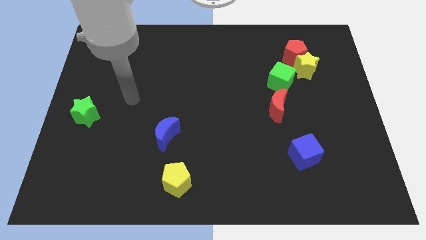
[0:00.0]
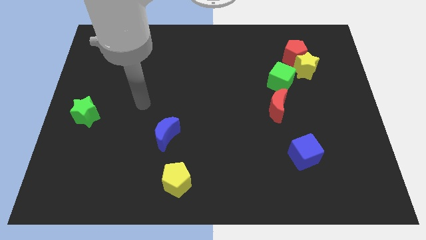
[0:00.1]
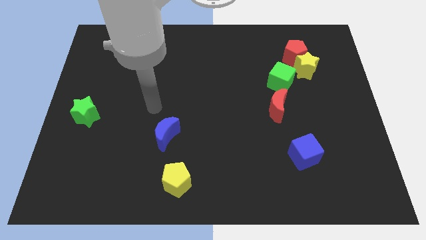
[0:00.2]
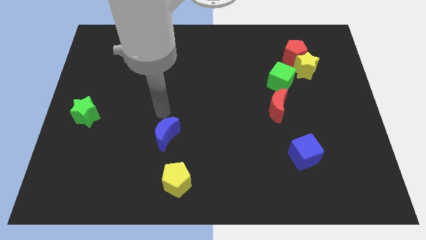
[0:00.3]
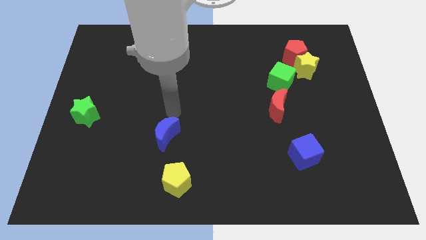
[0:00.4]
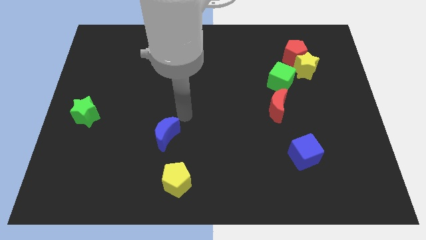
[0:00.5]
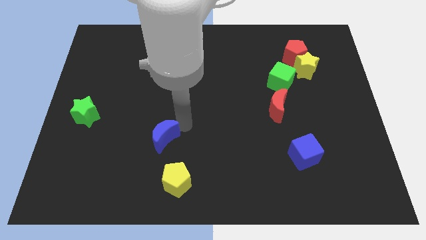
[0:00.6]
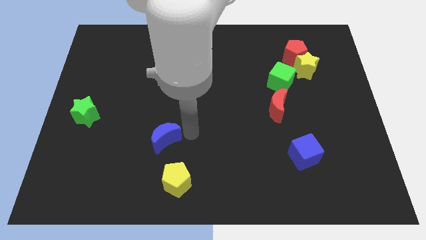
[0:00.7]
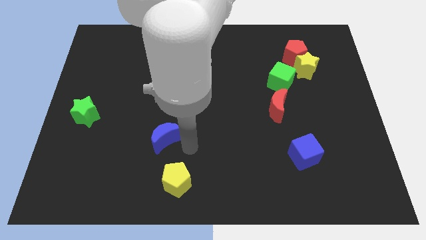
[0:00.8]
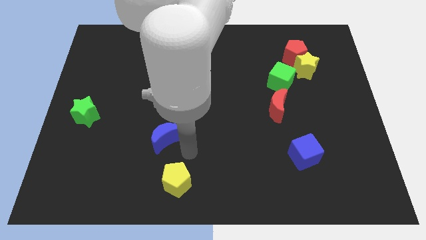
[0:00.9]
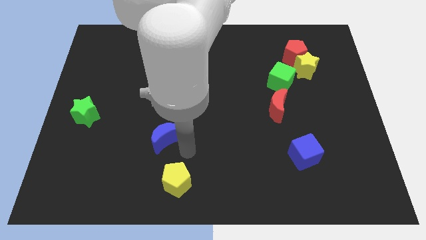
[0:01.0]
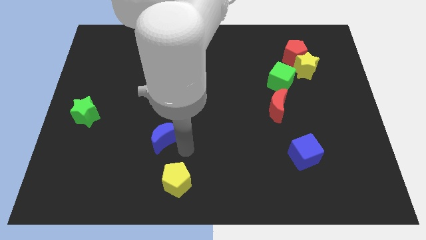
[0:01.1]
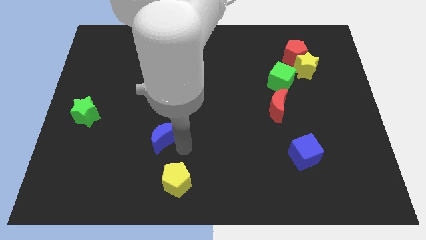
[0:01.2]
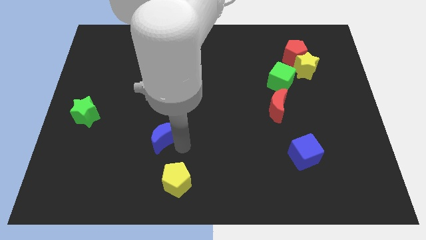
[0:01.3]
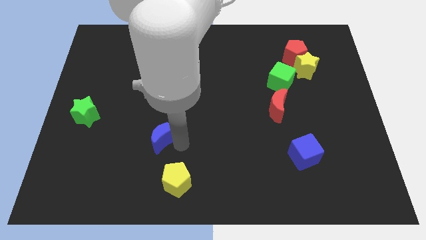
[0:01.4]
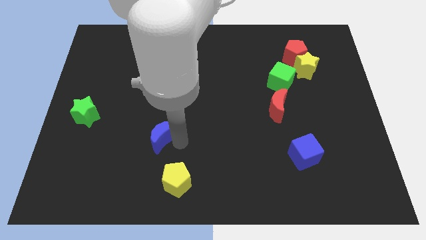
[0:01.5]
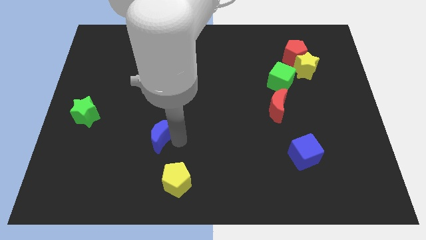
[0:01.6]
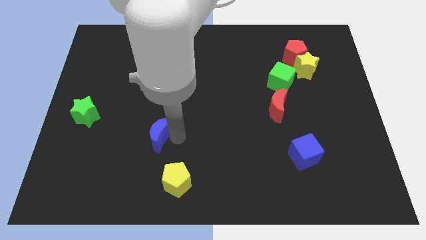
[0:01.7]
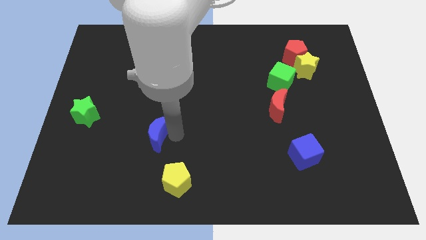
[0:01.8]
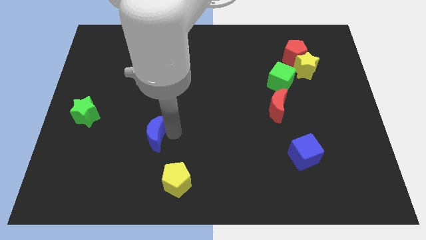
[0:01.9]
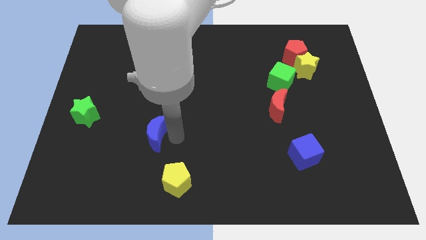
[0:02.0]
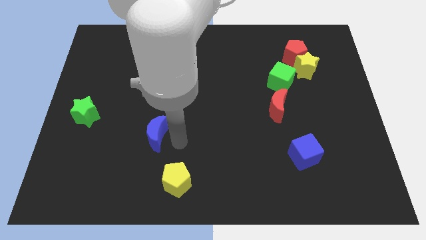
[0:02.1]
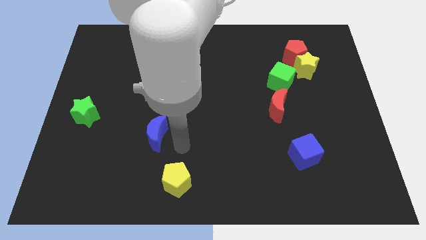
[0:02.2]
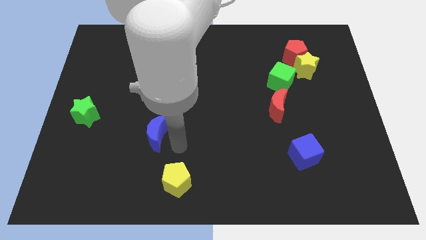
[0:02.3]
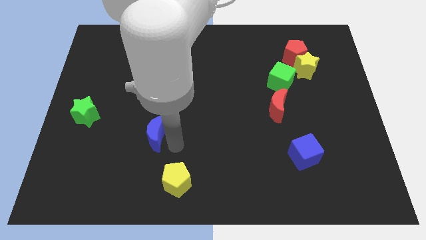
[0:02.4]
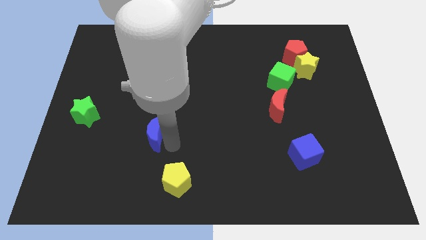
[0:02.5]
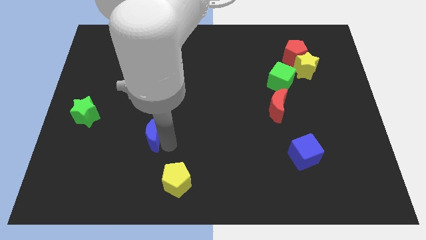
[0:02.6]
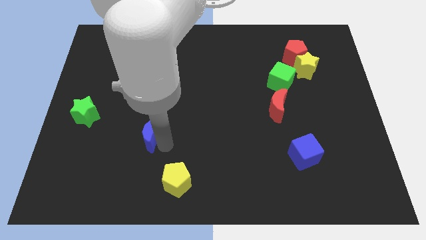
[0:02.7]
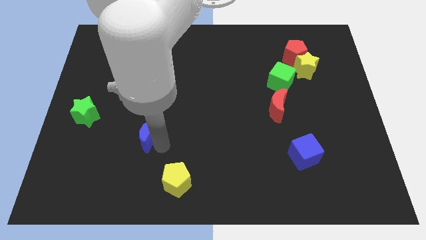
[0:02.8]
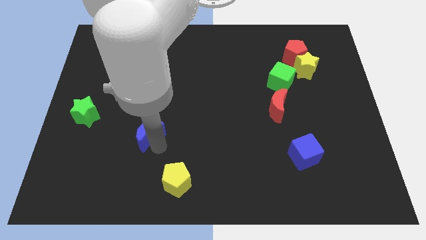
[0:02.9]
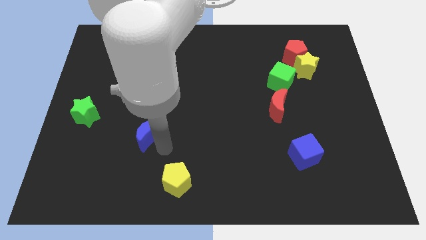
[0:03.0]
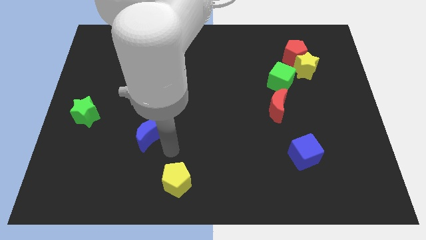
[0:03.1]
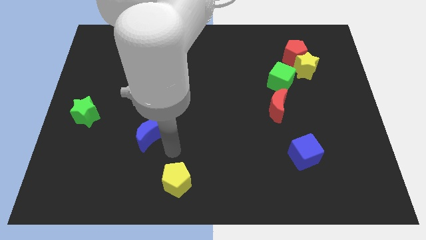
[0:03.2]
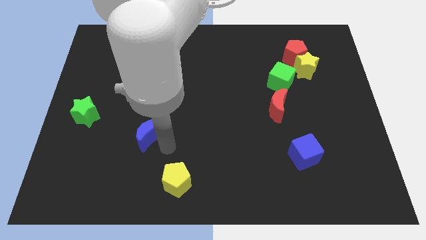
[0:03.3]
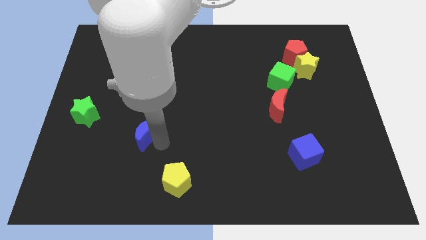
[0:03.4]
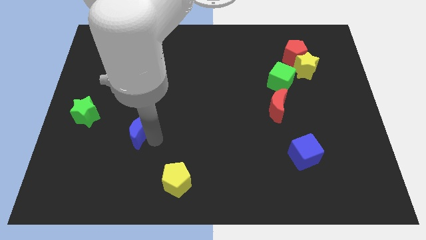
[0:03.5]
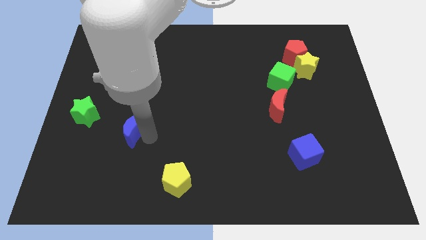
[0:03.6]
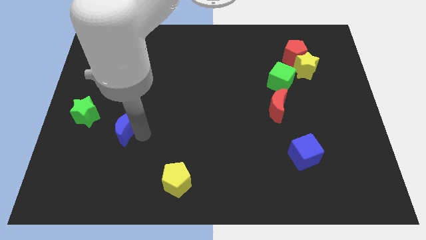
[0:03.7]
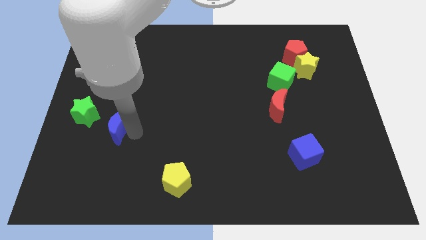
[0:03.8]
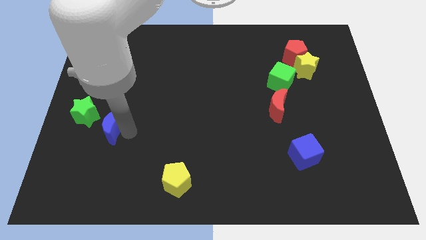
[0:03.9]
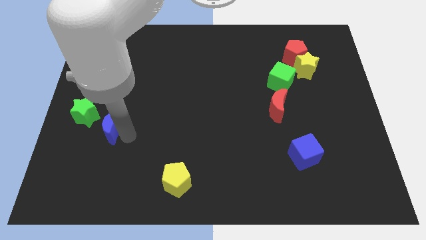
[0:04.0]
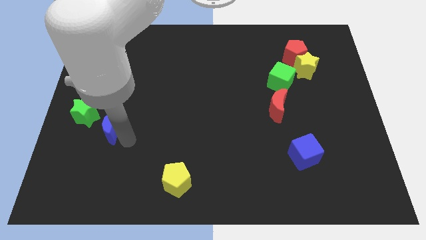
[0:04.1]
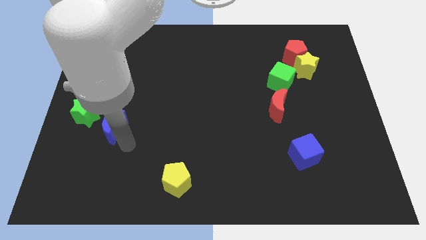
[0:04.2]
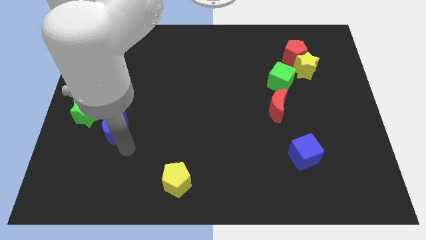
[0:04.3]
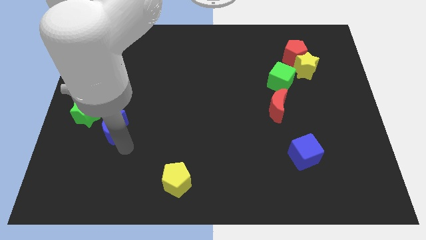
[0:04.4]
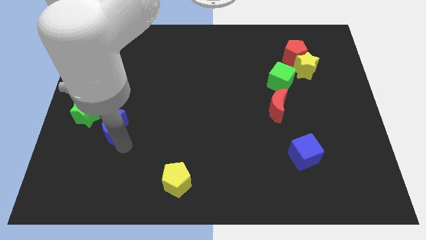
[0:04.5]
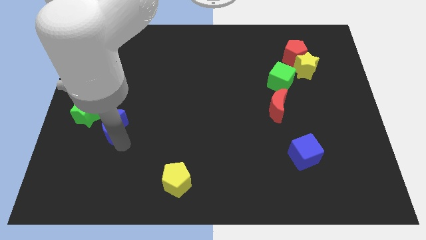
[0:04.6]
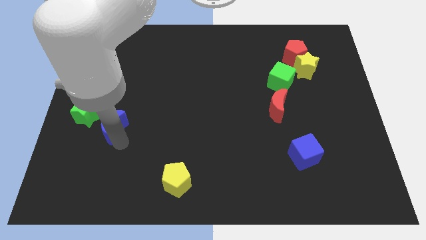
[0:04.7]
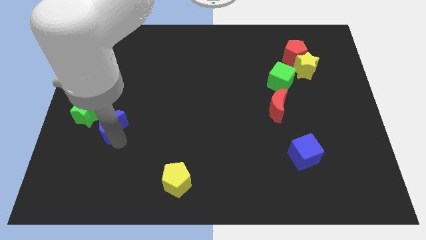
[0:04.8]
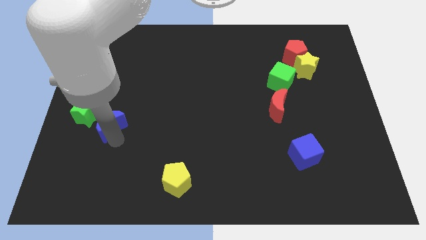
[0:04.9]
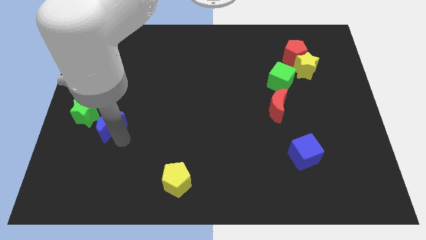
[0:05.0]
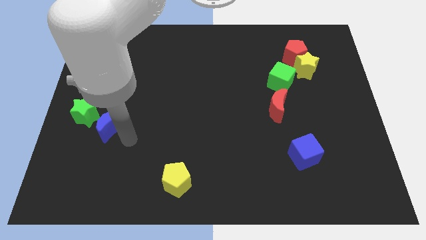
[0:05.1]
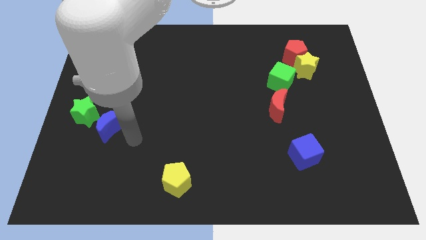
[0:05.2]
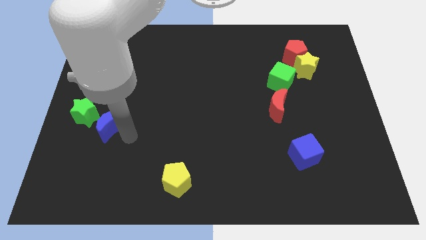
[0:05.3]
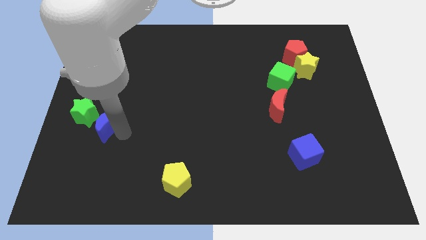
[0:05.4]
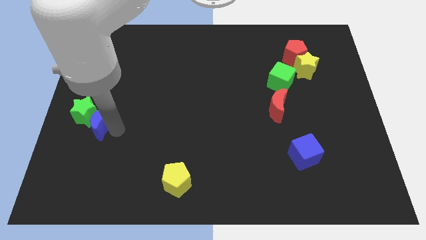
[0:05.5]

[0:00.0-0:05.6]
move the blue moon close to the green star
